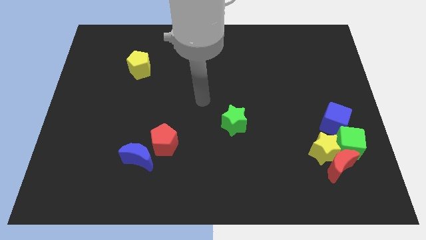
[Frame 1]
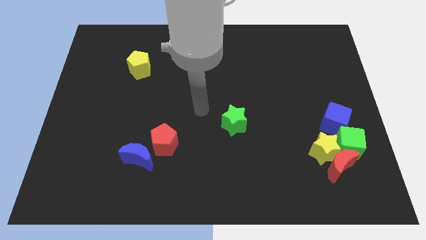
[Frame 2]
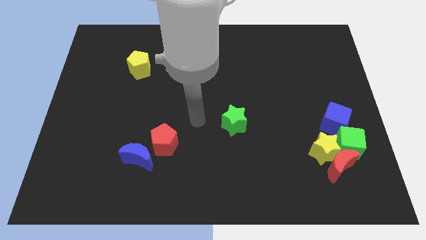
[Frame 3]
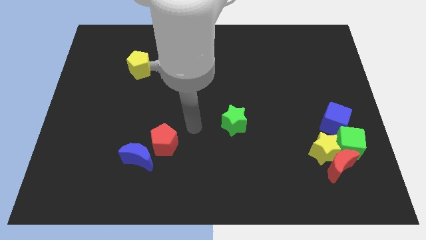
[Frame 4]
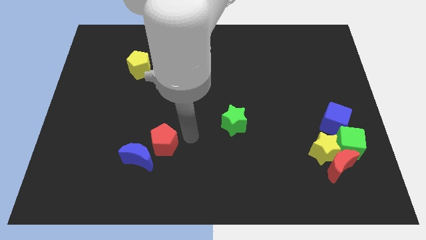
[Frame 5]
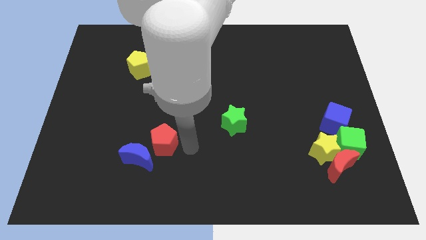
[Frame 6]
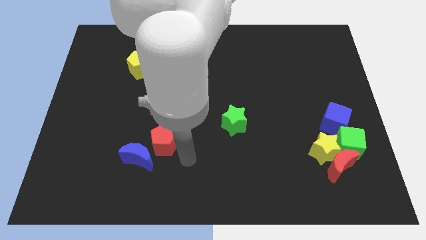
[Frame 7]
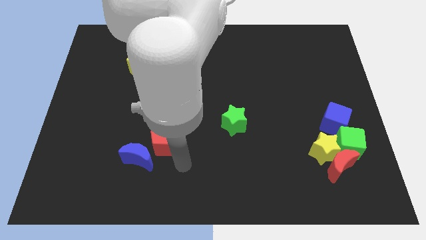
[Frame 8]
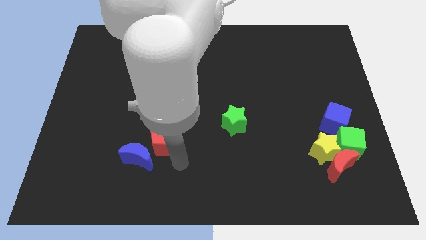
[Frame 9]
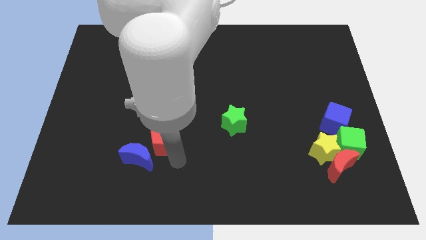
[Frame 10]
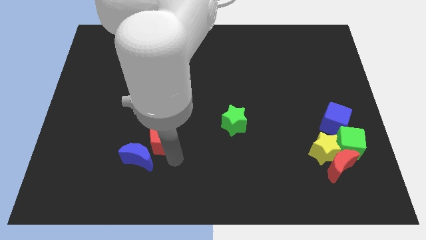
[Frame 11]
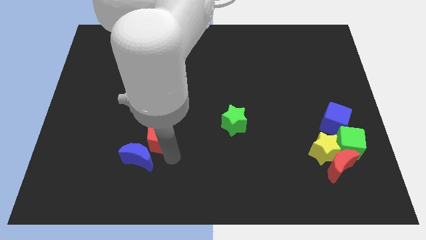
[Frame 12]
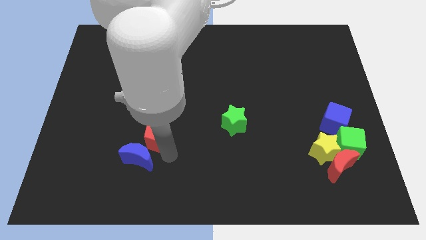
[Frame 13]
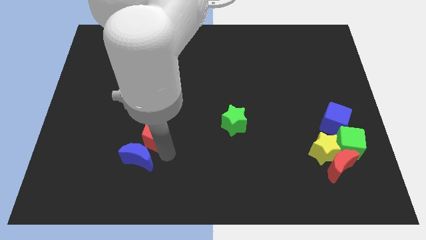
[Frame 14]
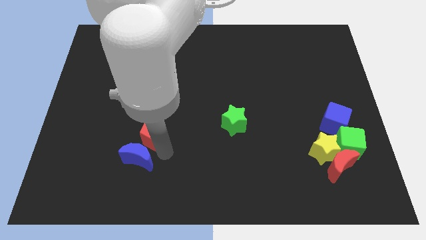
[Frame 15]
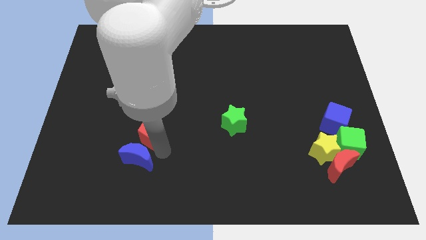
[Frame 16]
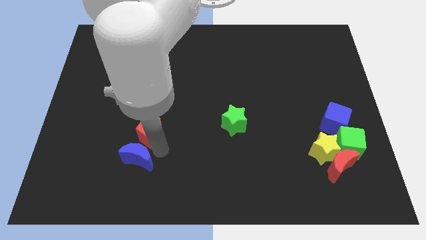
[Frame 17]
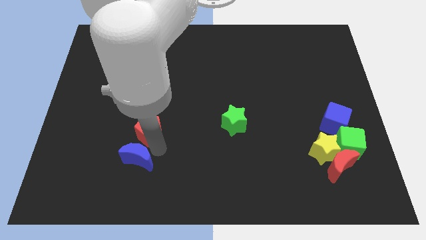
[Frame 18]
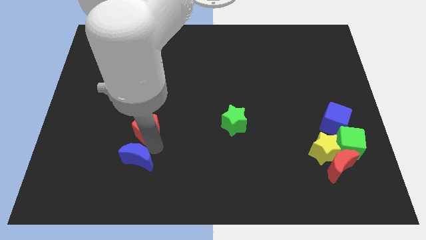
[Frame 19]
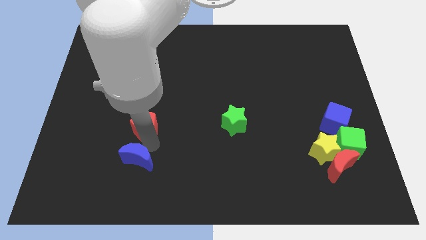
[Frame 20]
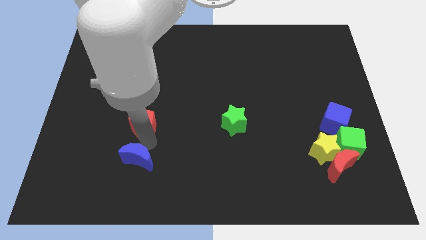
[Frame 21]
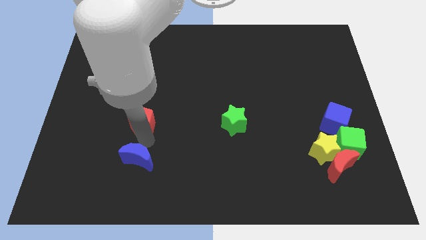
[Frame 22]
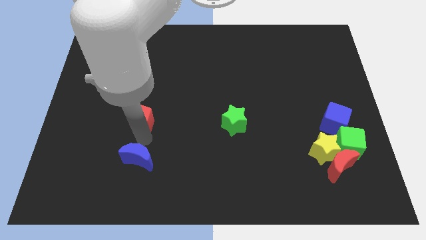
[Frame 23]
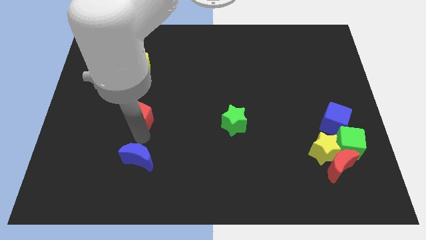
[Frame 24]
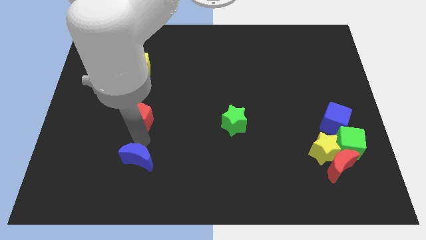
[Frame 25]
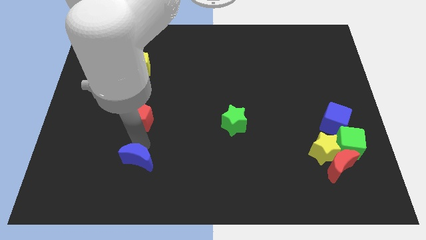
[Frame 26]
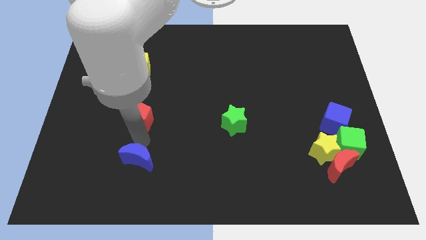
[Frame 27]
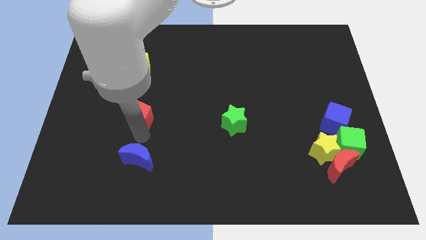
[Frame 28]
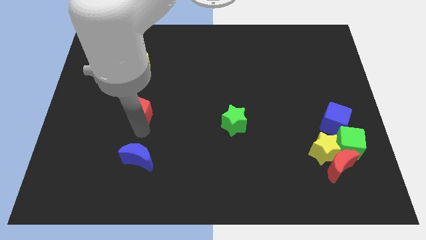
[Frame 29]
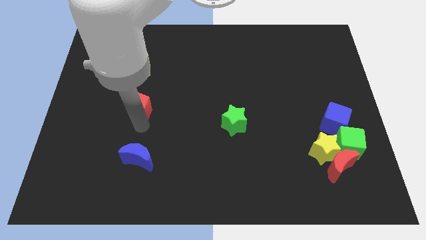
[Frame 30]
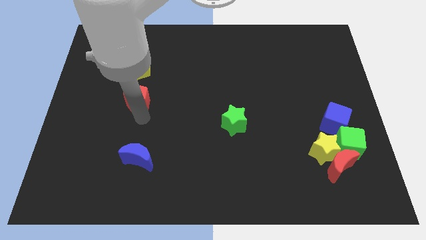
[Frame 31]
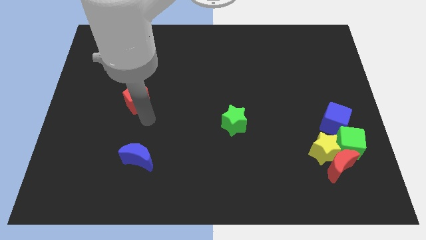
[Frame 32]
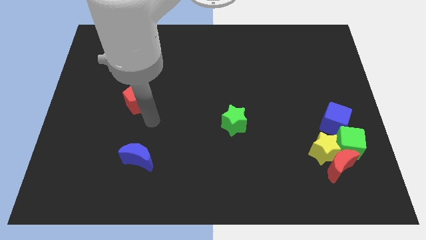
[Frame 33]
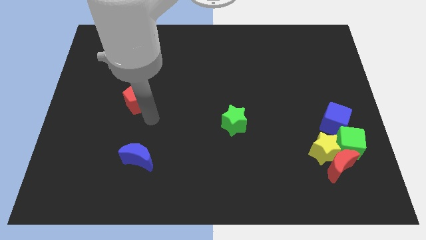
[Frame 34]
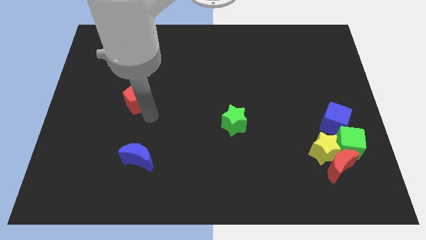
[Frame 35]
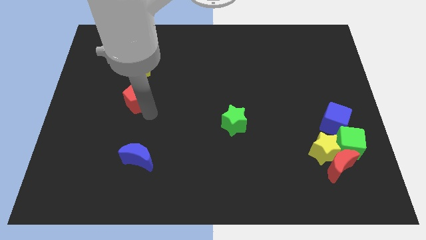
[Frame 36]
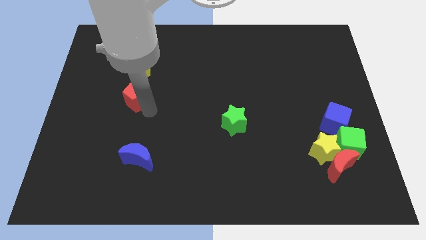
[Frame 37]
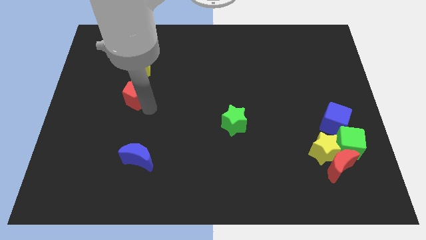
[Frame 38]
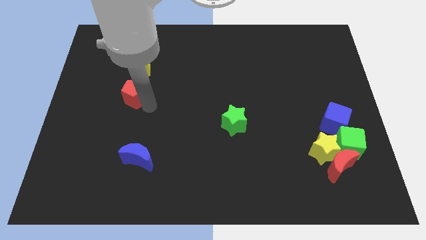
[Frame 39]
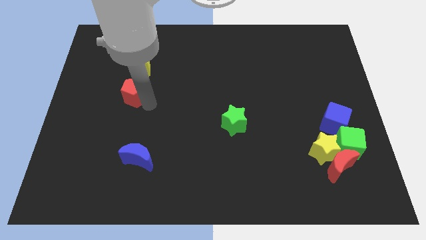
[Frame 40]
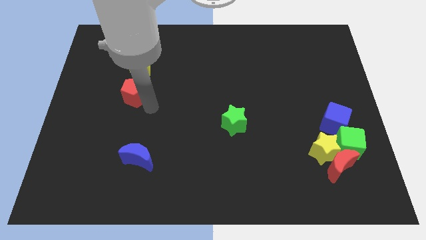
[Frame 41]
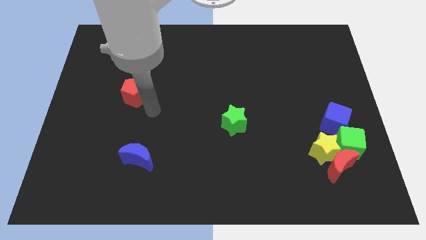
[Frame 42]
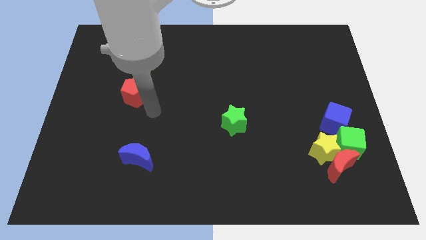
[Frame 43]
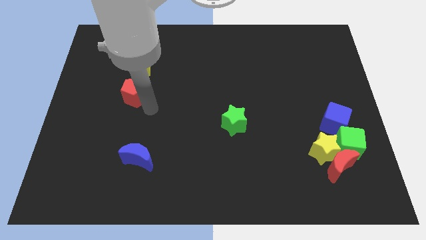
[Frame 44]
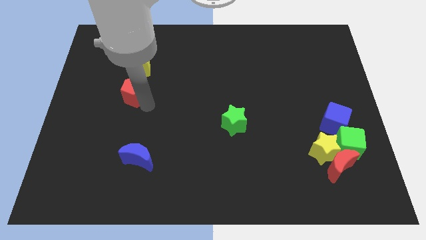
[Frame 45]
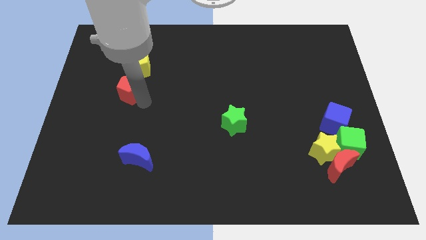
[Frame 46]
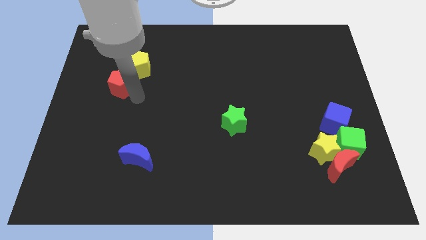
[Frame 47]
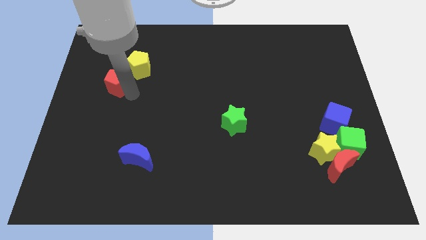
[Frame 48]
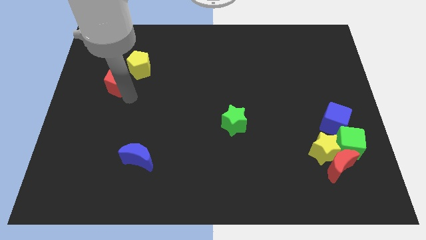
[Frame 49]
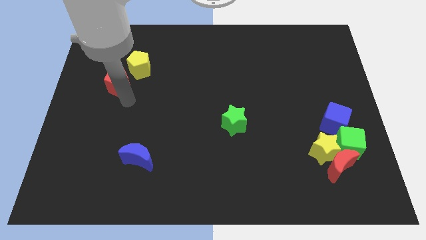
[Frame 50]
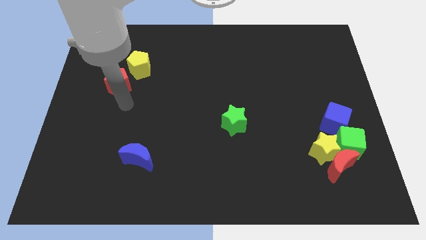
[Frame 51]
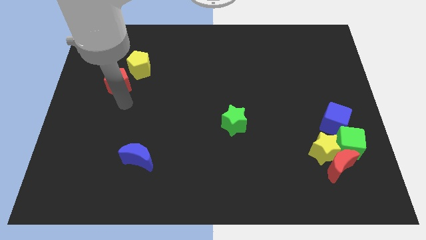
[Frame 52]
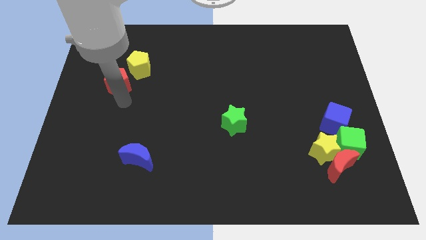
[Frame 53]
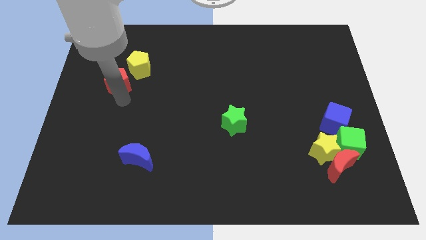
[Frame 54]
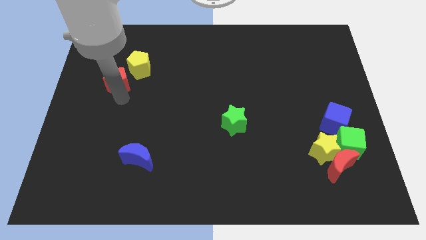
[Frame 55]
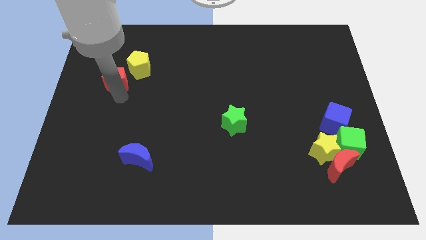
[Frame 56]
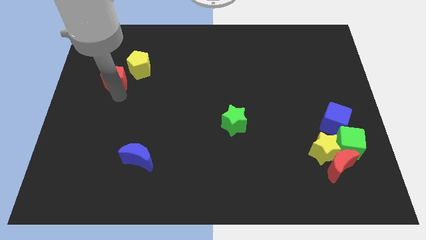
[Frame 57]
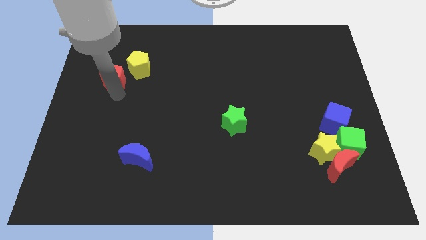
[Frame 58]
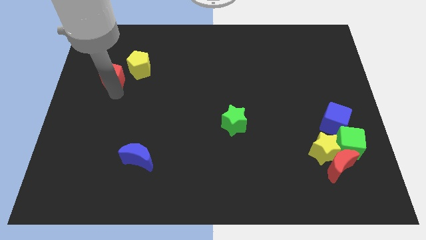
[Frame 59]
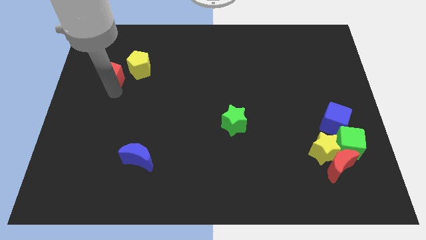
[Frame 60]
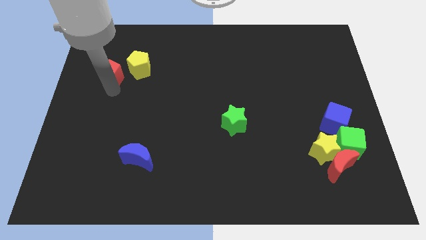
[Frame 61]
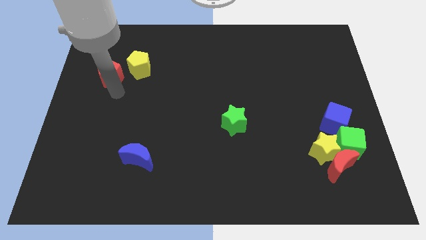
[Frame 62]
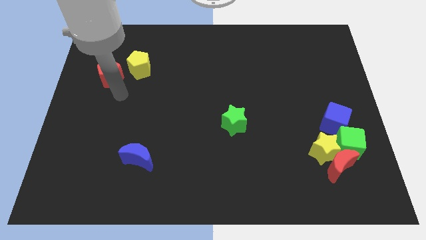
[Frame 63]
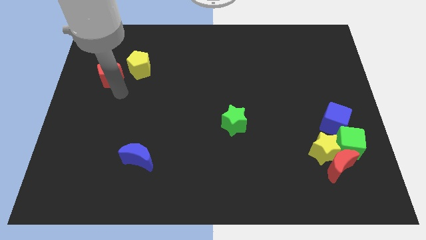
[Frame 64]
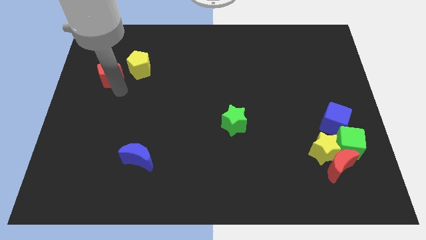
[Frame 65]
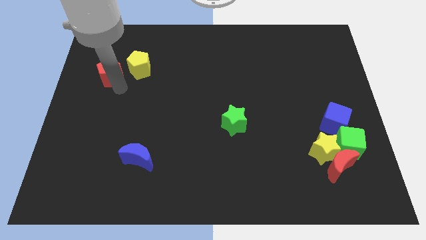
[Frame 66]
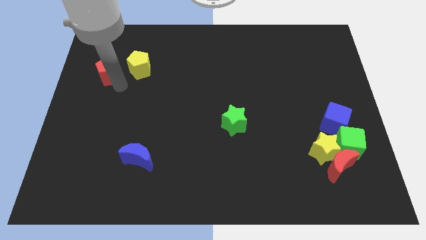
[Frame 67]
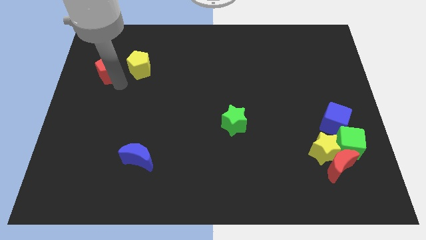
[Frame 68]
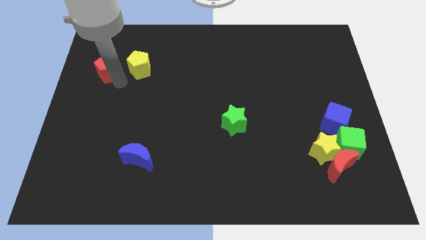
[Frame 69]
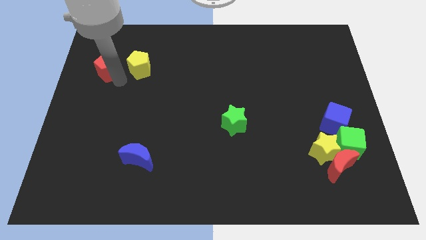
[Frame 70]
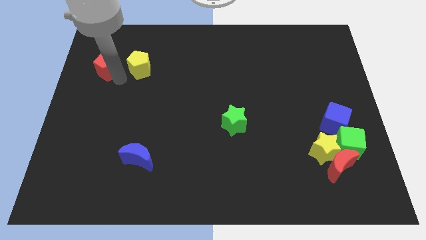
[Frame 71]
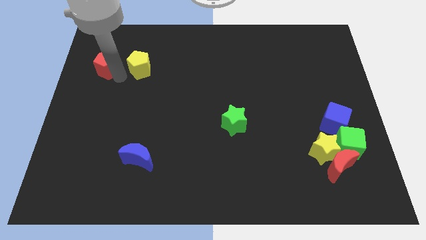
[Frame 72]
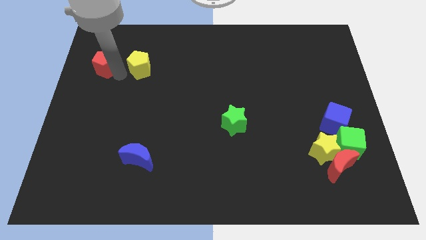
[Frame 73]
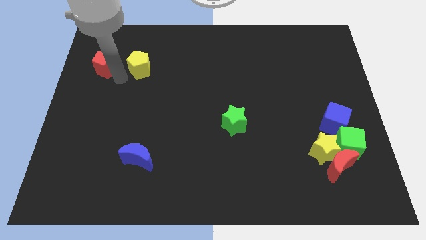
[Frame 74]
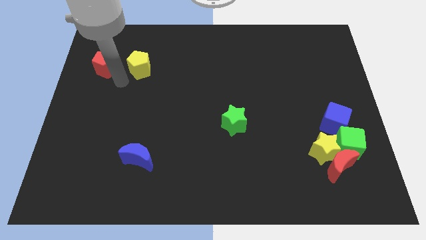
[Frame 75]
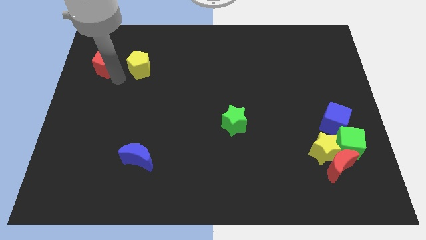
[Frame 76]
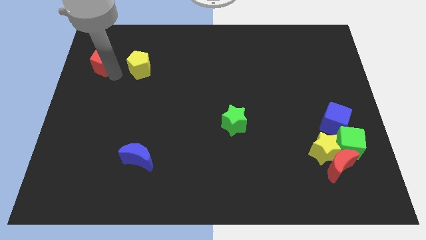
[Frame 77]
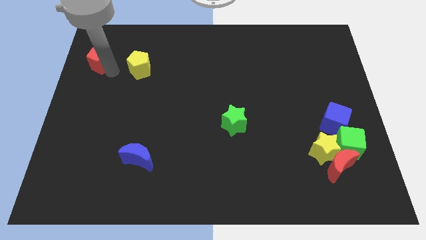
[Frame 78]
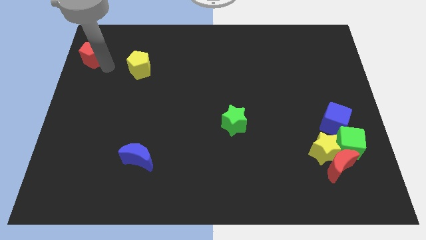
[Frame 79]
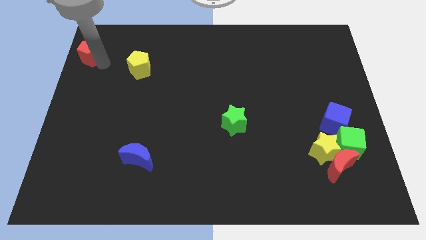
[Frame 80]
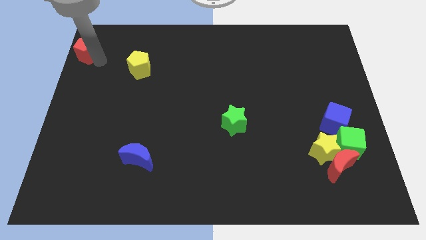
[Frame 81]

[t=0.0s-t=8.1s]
push the red pentagon to the top left of the board
